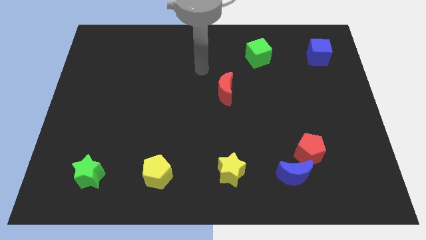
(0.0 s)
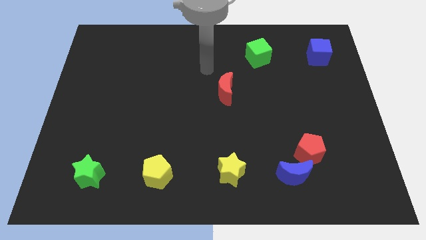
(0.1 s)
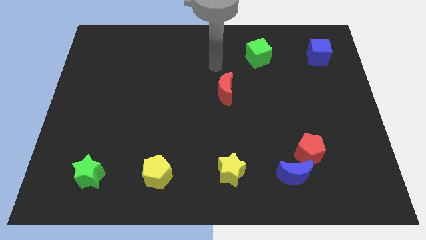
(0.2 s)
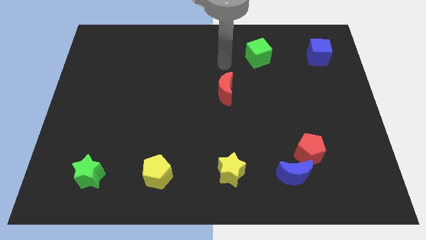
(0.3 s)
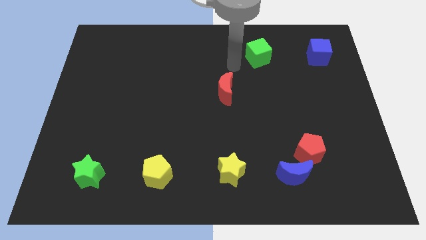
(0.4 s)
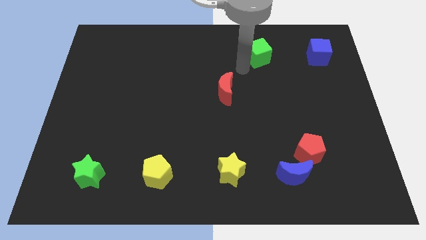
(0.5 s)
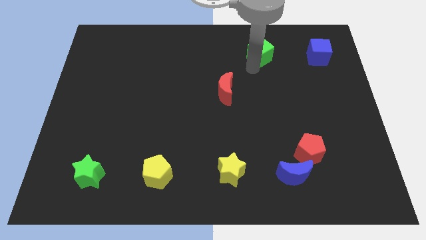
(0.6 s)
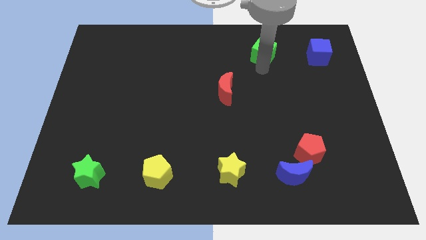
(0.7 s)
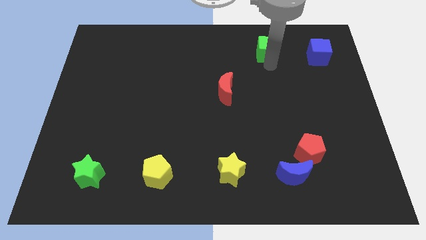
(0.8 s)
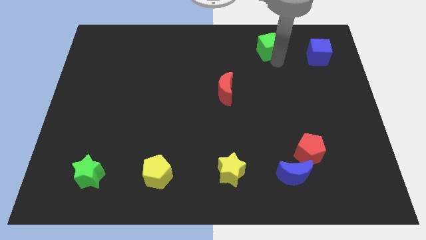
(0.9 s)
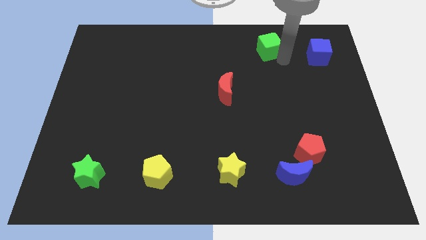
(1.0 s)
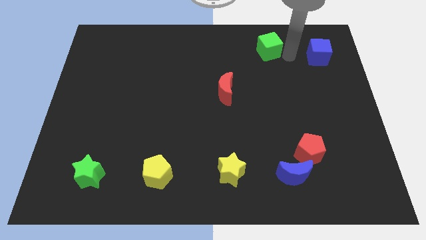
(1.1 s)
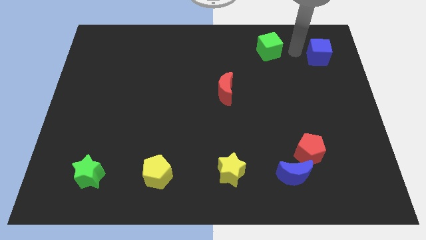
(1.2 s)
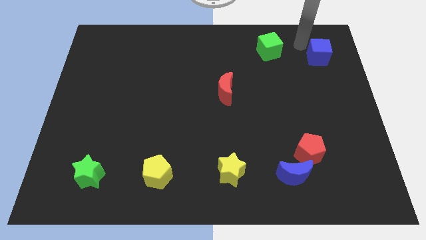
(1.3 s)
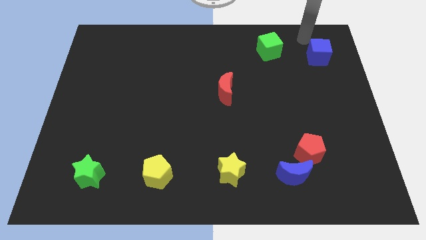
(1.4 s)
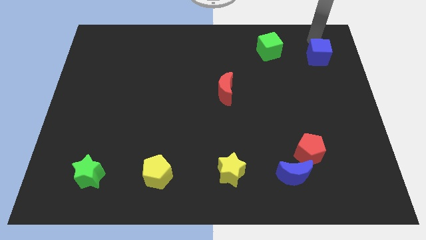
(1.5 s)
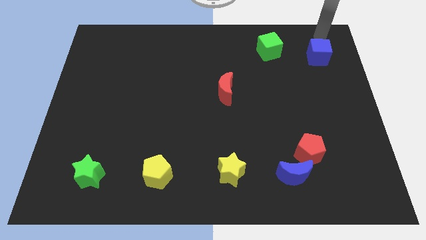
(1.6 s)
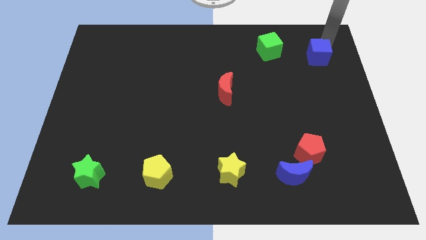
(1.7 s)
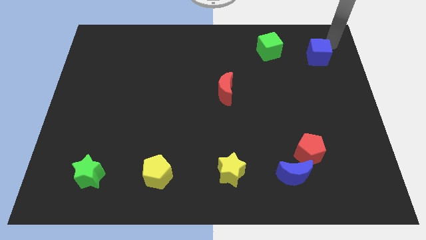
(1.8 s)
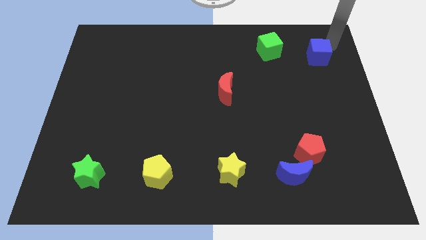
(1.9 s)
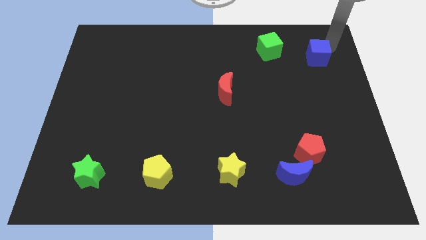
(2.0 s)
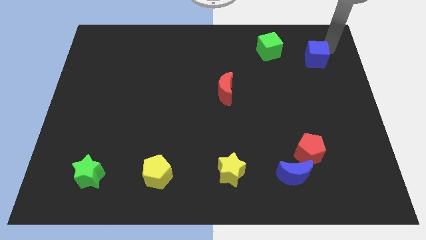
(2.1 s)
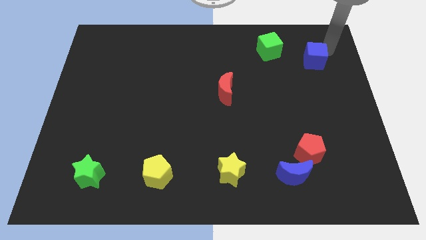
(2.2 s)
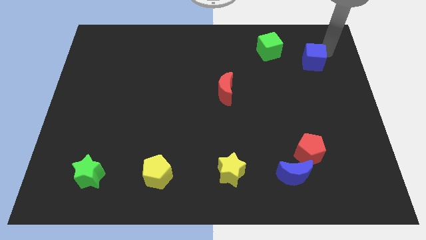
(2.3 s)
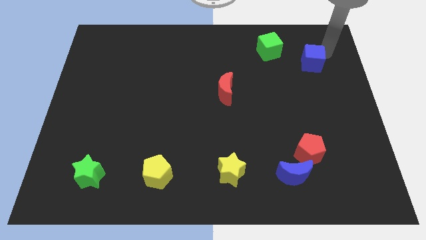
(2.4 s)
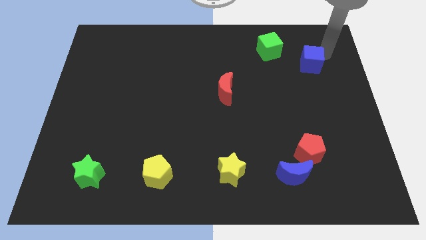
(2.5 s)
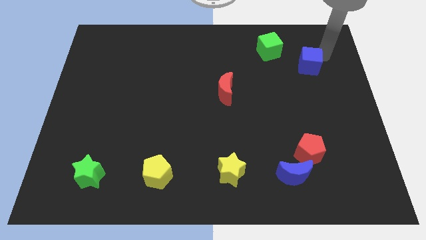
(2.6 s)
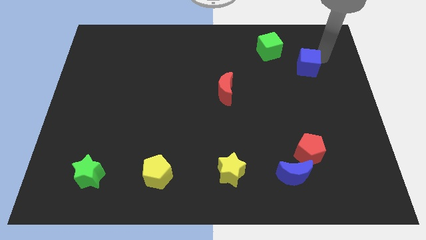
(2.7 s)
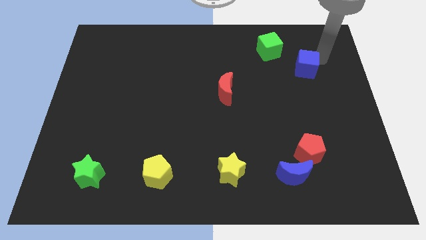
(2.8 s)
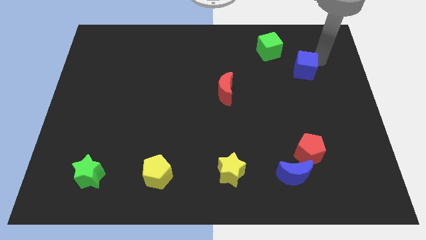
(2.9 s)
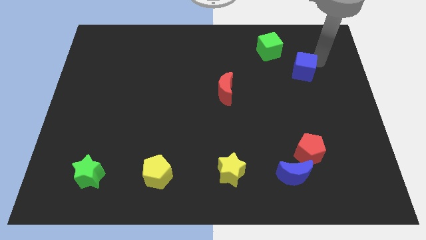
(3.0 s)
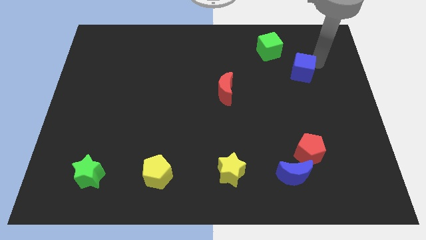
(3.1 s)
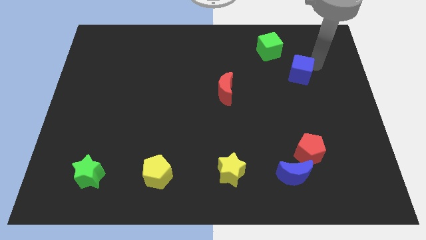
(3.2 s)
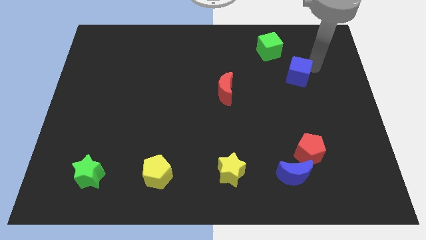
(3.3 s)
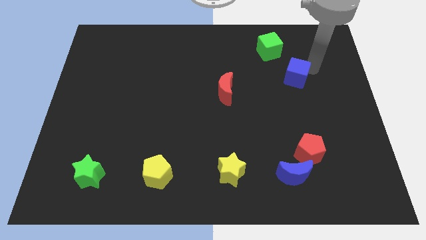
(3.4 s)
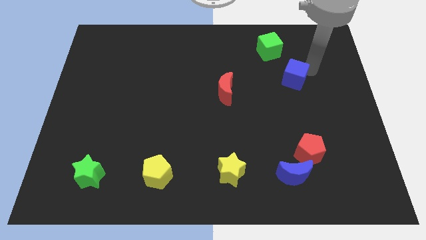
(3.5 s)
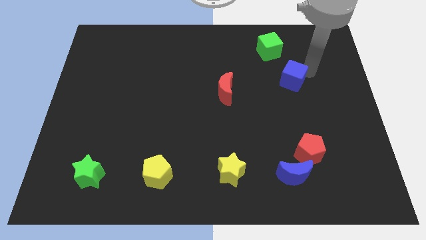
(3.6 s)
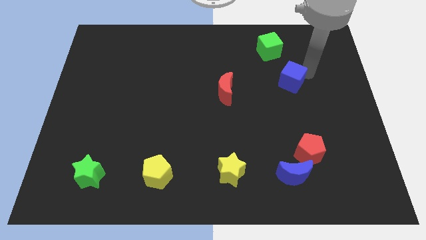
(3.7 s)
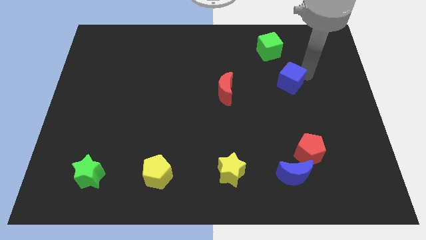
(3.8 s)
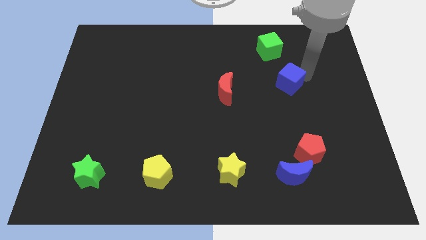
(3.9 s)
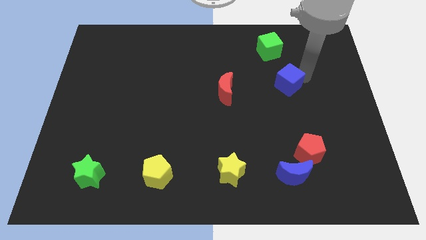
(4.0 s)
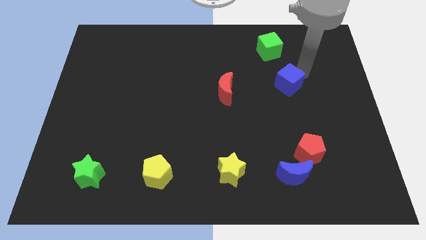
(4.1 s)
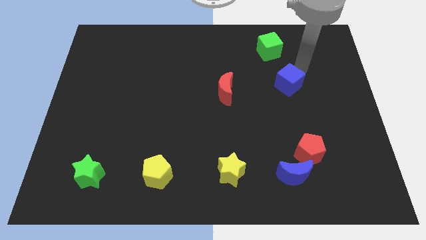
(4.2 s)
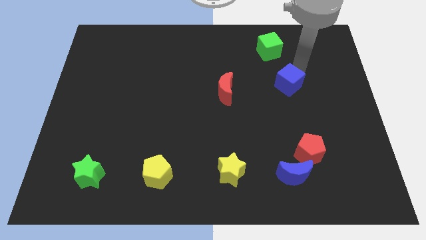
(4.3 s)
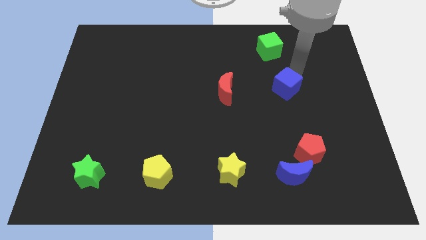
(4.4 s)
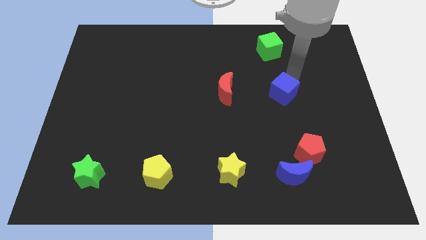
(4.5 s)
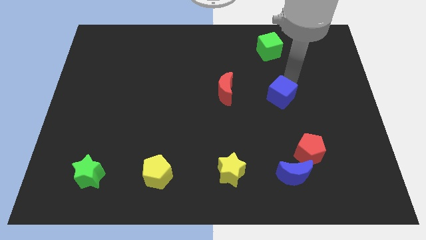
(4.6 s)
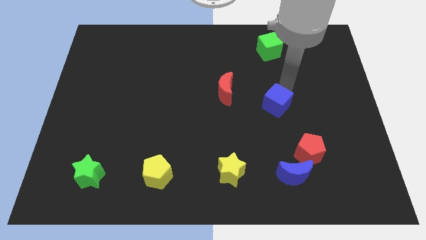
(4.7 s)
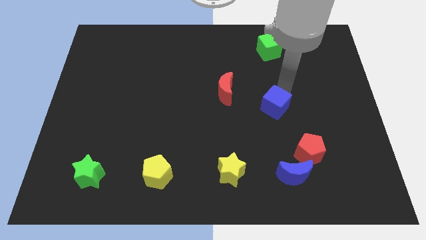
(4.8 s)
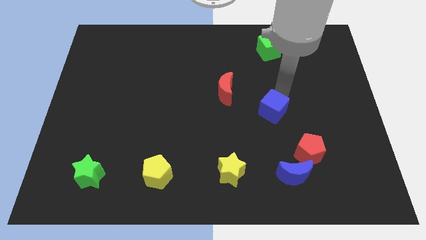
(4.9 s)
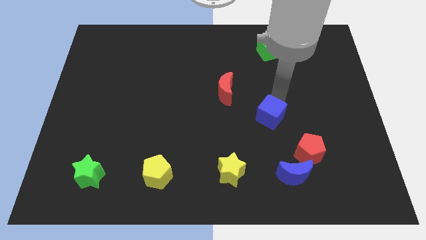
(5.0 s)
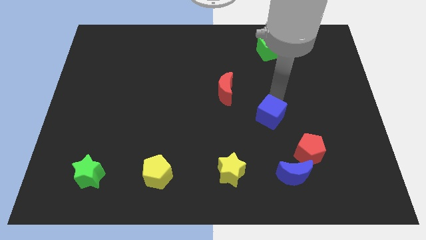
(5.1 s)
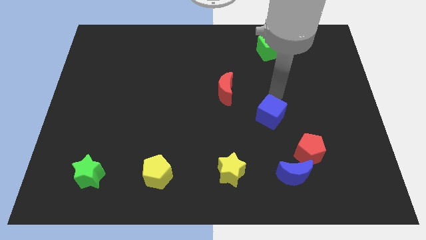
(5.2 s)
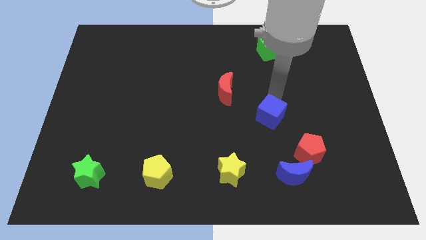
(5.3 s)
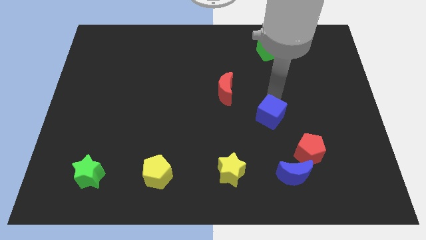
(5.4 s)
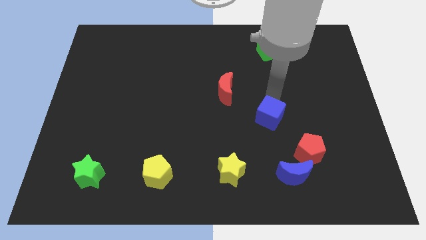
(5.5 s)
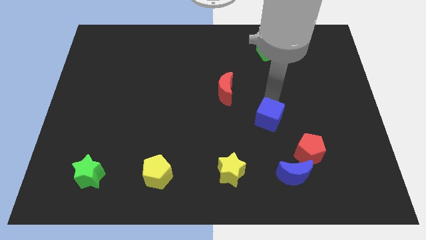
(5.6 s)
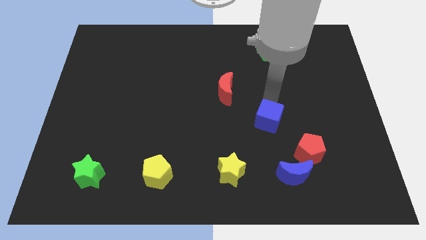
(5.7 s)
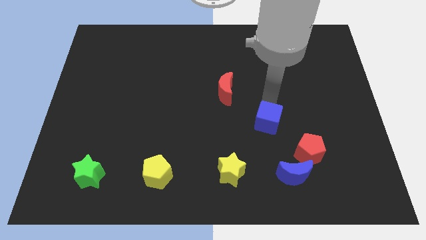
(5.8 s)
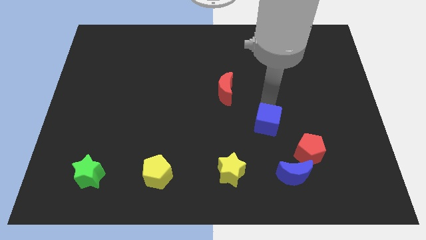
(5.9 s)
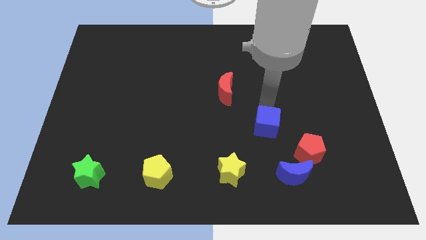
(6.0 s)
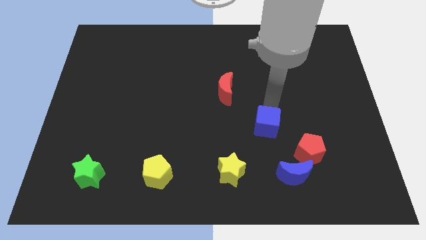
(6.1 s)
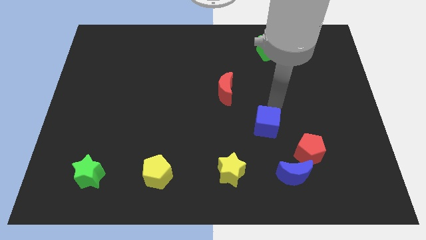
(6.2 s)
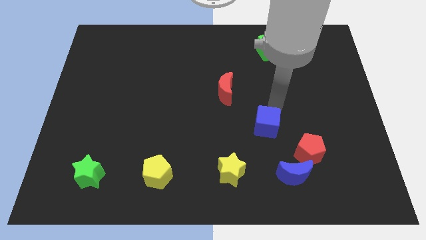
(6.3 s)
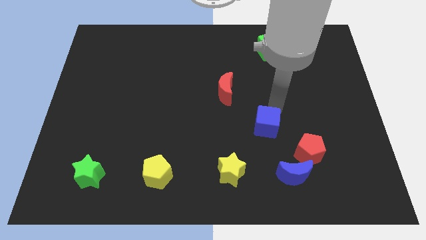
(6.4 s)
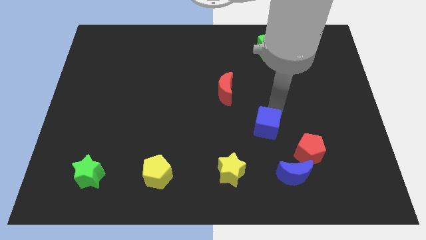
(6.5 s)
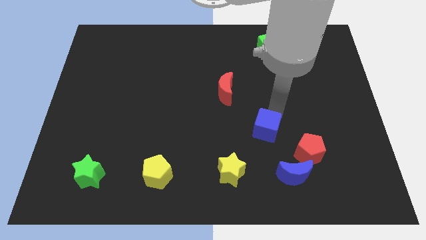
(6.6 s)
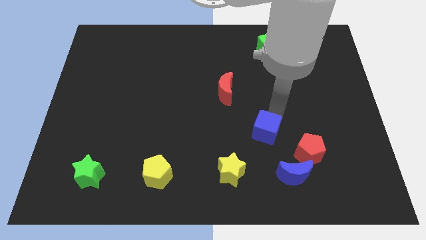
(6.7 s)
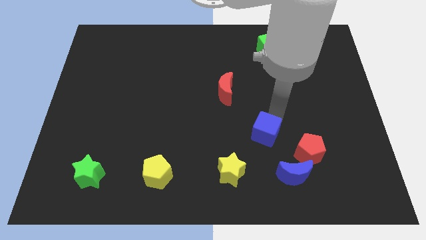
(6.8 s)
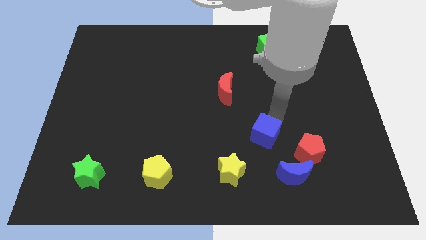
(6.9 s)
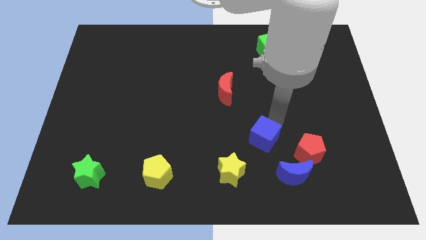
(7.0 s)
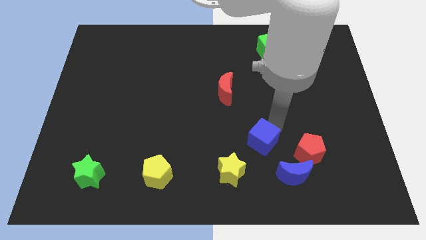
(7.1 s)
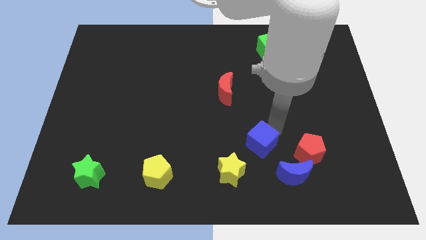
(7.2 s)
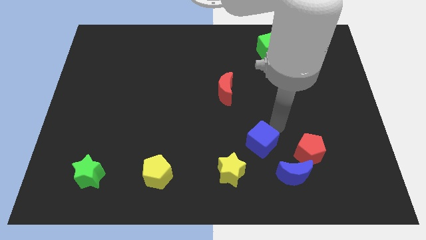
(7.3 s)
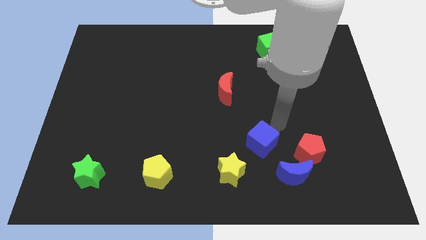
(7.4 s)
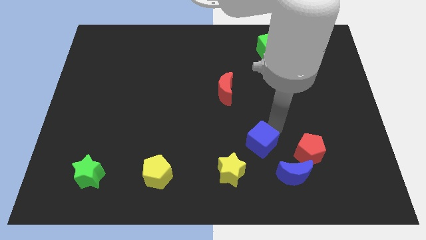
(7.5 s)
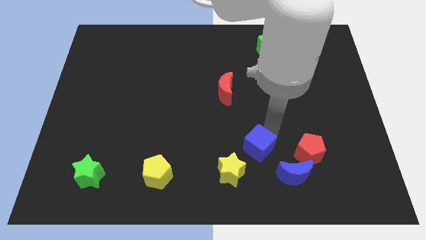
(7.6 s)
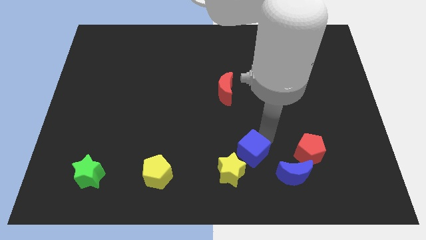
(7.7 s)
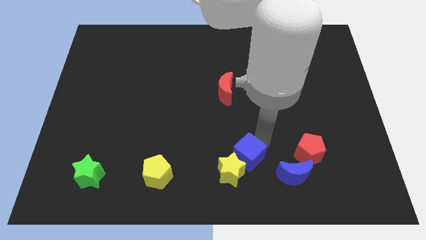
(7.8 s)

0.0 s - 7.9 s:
put the blue cube close to the yellow star

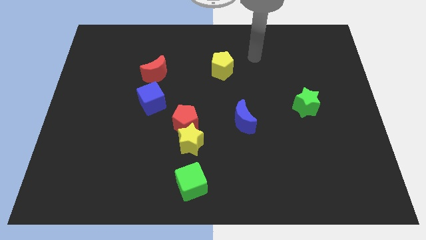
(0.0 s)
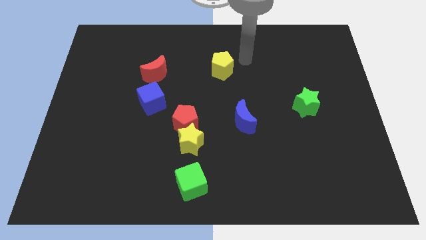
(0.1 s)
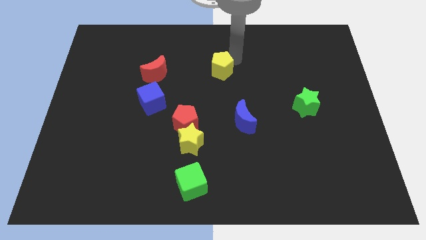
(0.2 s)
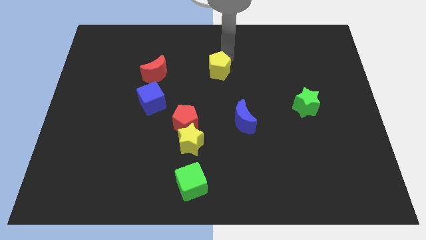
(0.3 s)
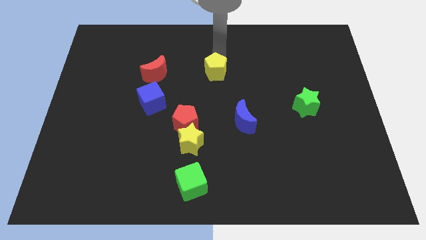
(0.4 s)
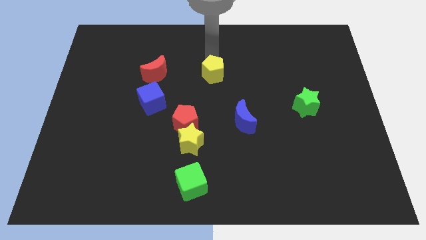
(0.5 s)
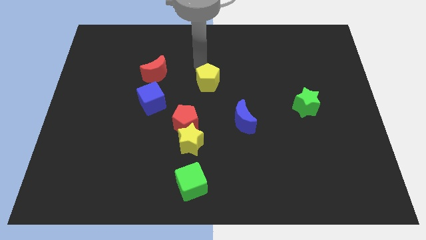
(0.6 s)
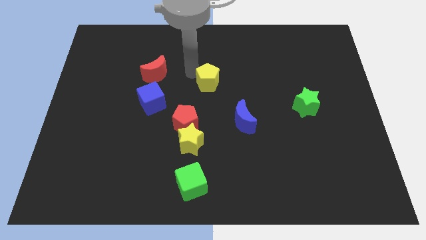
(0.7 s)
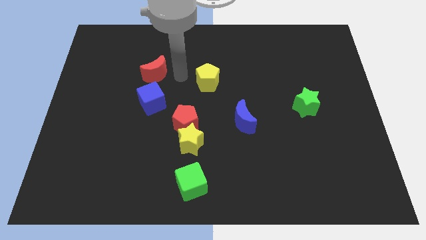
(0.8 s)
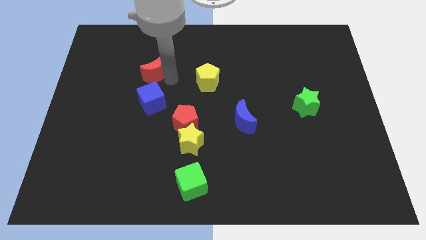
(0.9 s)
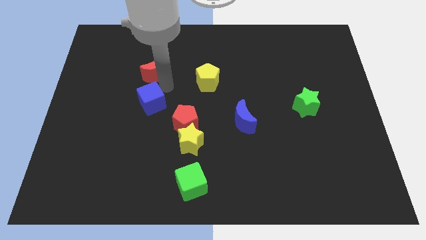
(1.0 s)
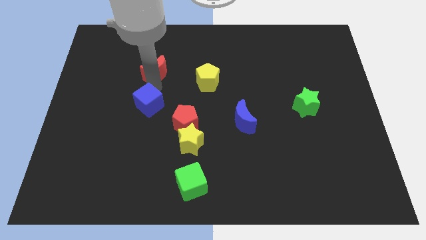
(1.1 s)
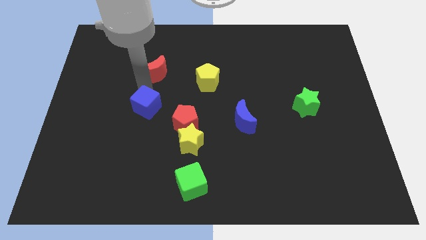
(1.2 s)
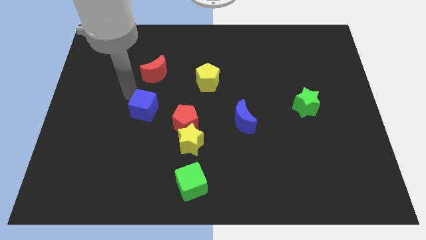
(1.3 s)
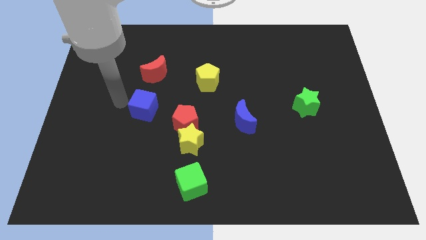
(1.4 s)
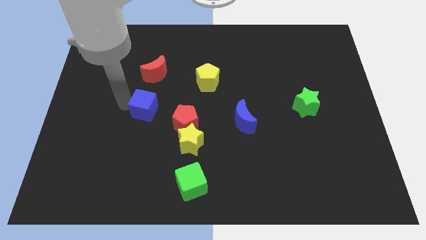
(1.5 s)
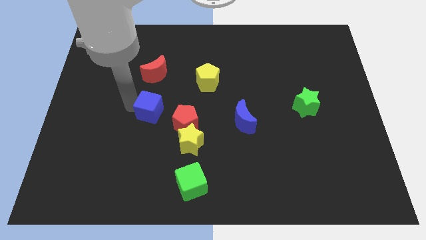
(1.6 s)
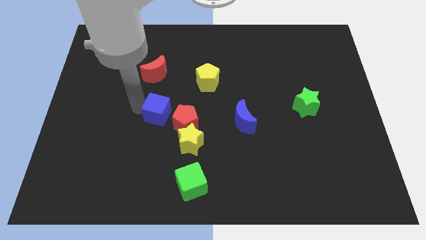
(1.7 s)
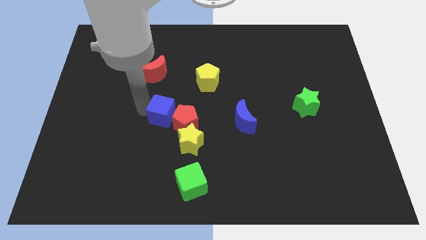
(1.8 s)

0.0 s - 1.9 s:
slide the blue cube to the red pentagon
